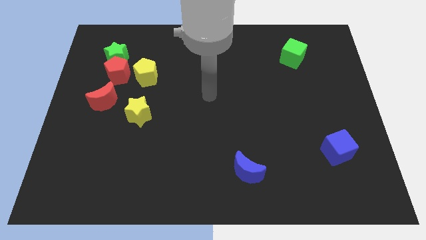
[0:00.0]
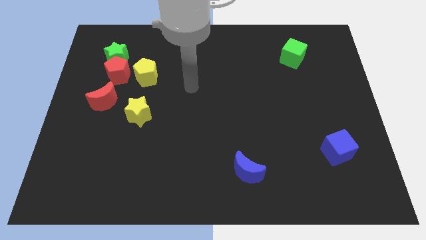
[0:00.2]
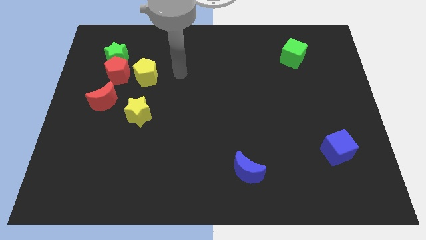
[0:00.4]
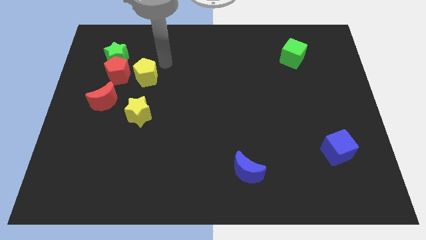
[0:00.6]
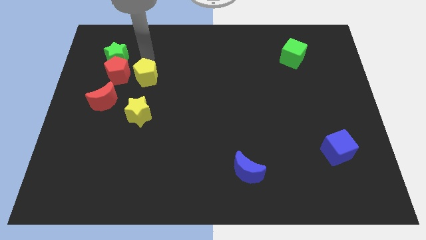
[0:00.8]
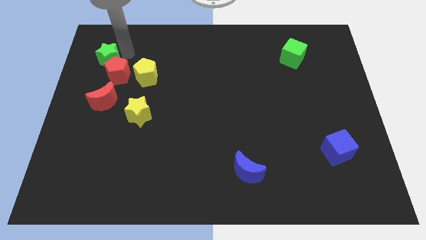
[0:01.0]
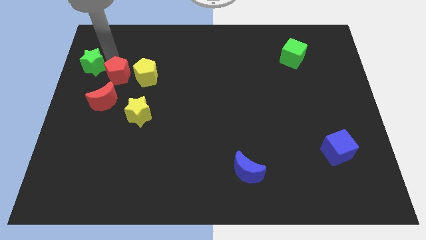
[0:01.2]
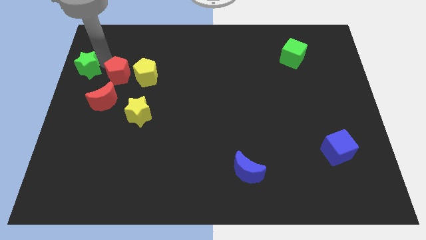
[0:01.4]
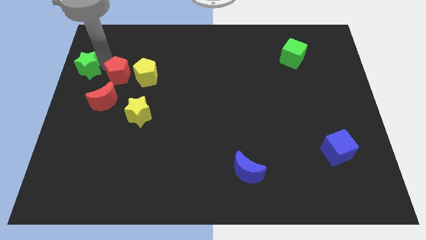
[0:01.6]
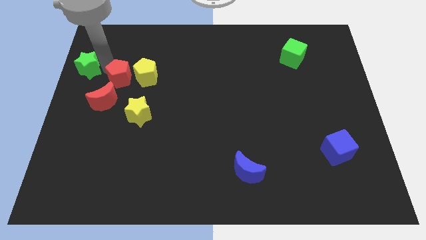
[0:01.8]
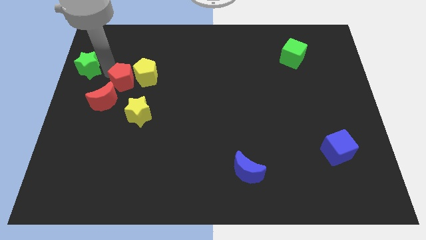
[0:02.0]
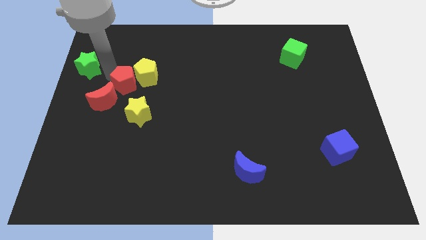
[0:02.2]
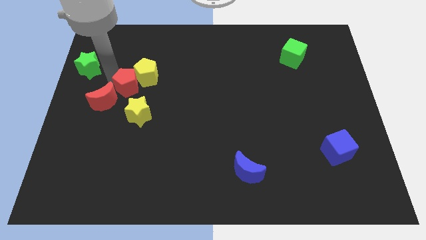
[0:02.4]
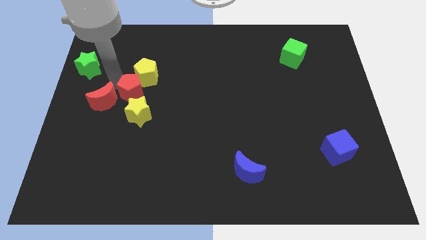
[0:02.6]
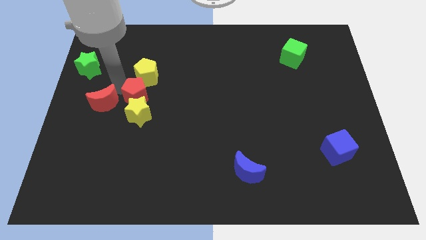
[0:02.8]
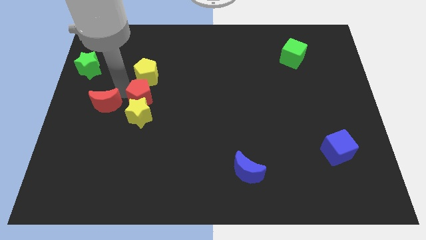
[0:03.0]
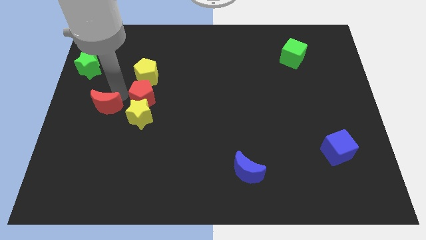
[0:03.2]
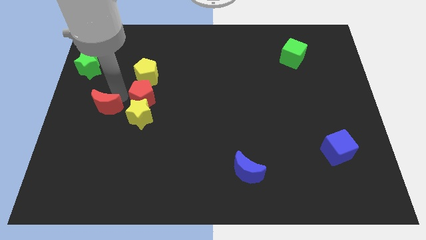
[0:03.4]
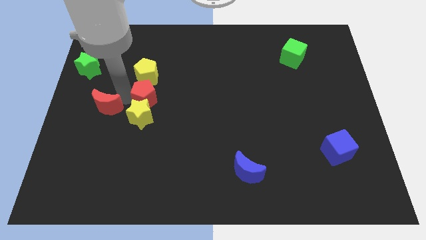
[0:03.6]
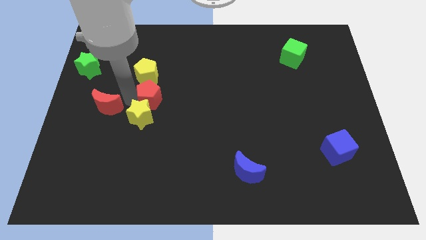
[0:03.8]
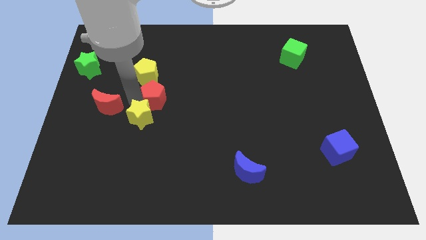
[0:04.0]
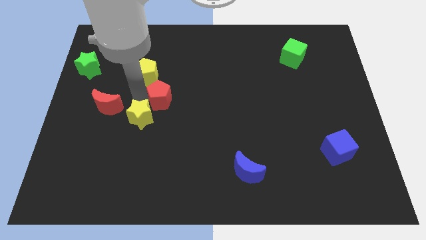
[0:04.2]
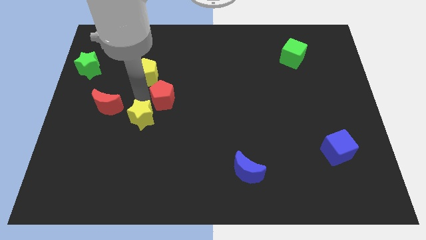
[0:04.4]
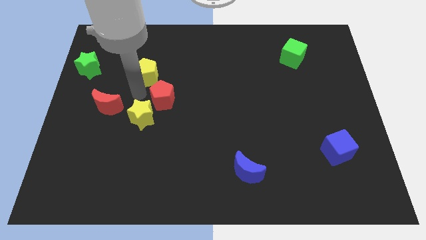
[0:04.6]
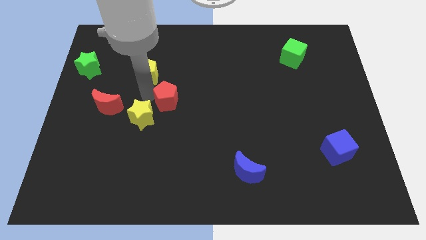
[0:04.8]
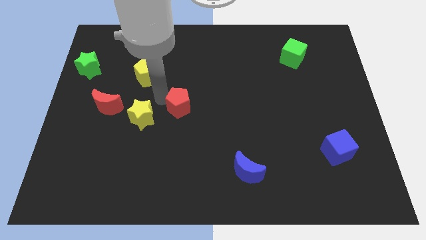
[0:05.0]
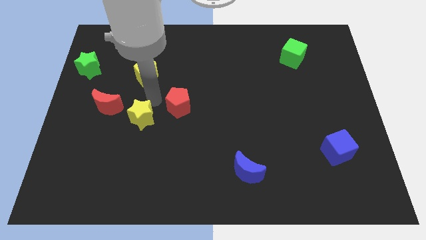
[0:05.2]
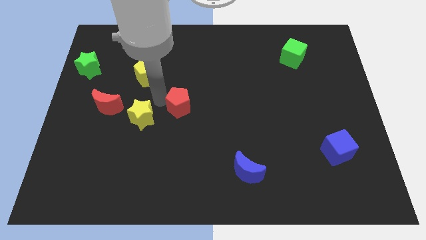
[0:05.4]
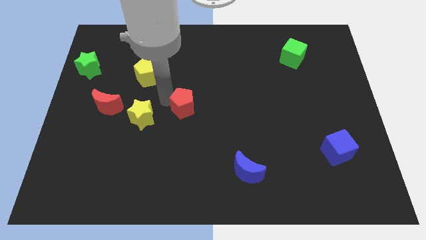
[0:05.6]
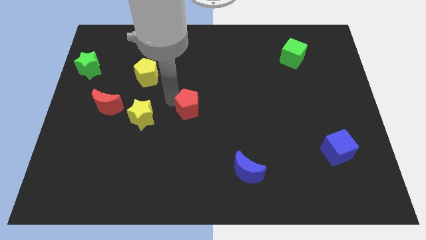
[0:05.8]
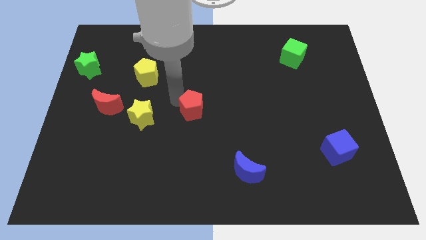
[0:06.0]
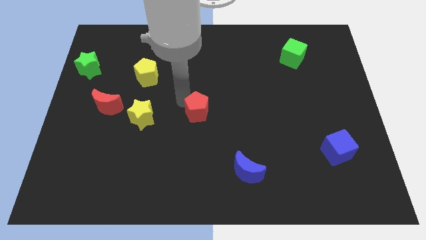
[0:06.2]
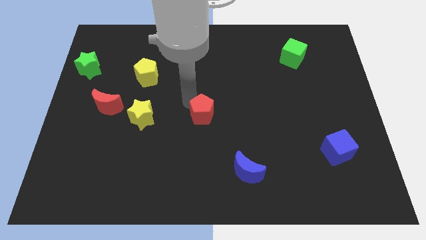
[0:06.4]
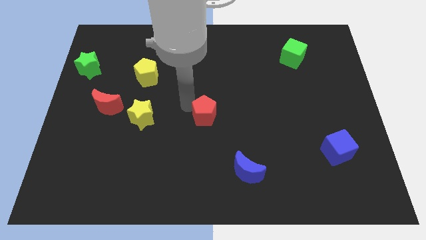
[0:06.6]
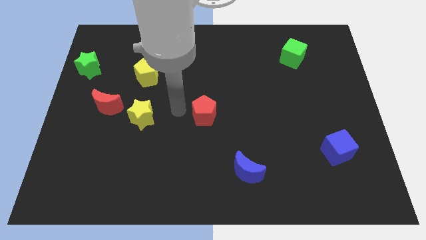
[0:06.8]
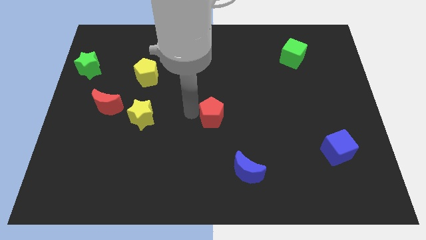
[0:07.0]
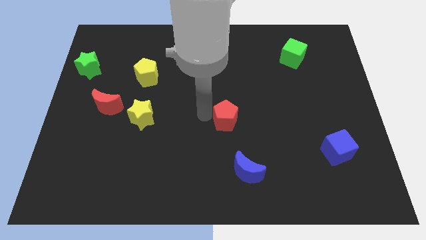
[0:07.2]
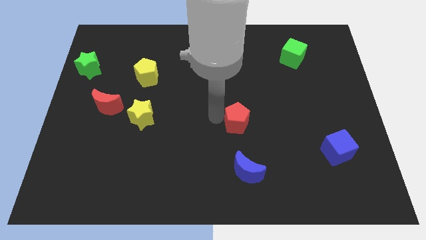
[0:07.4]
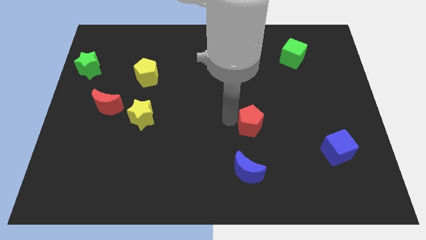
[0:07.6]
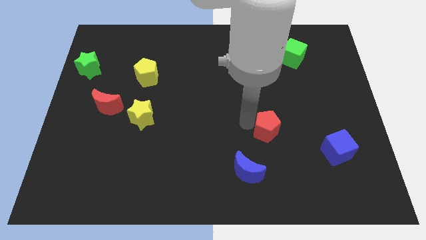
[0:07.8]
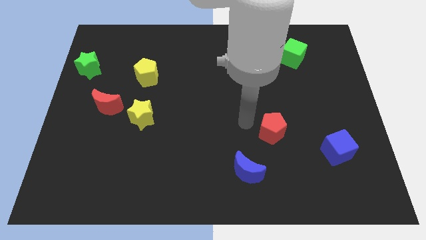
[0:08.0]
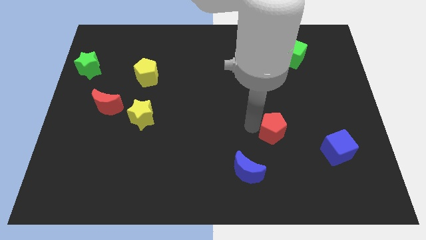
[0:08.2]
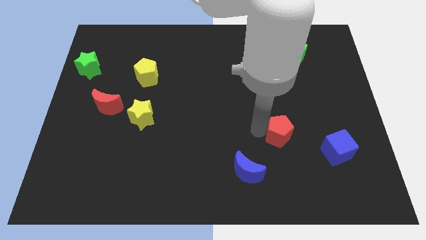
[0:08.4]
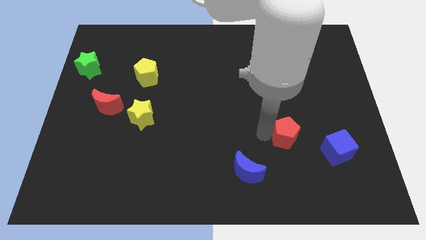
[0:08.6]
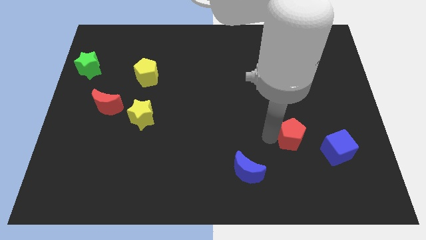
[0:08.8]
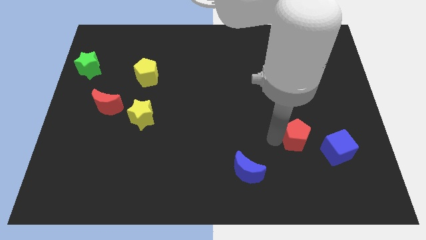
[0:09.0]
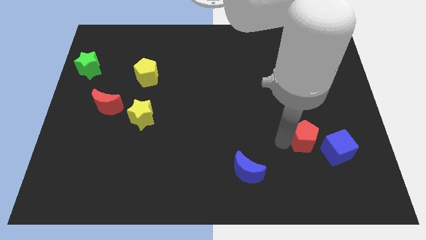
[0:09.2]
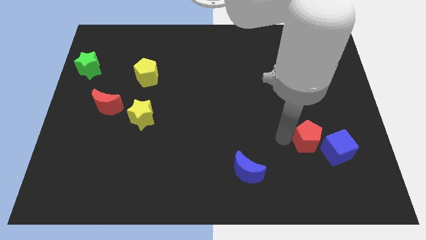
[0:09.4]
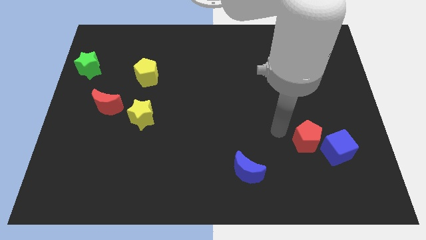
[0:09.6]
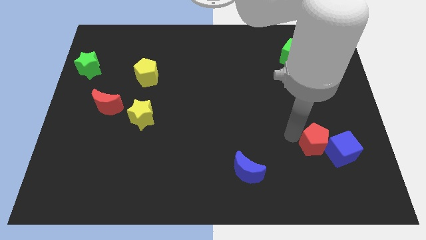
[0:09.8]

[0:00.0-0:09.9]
put the red pentagon close to the blue cube

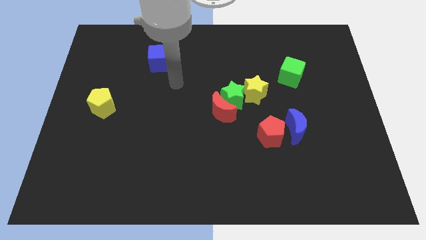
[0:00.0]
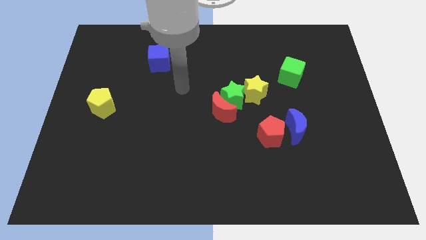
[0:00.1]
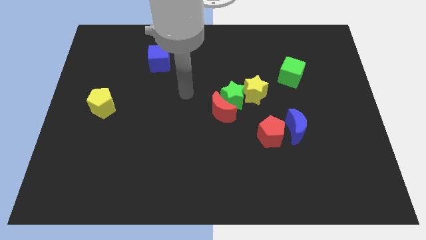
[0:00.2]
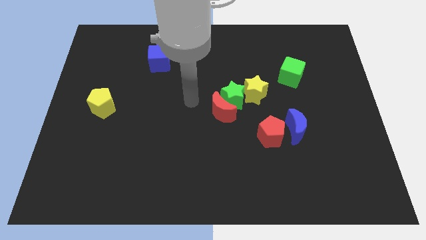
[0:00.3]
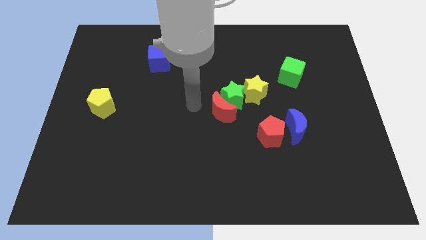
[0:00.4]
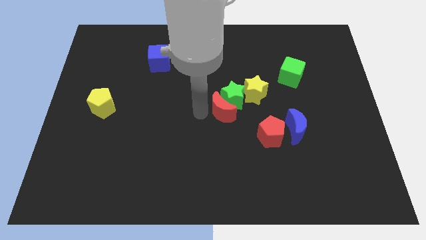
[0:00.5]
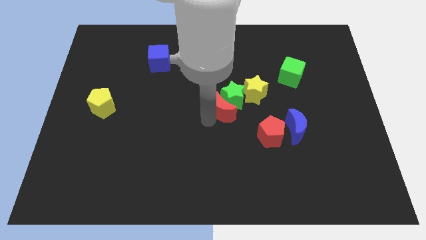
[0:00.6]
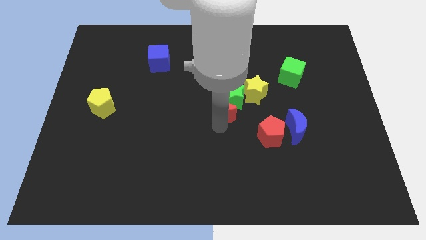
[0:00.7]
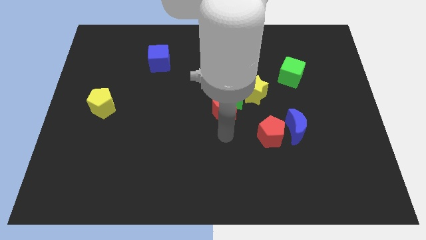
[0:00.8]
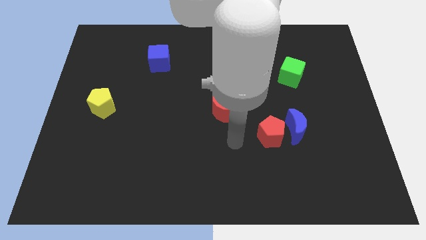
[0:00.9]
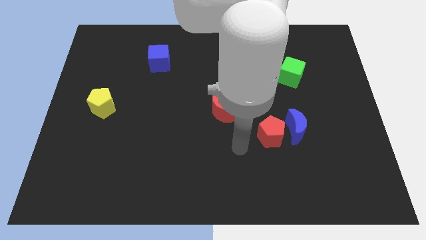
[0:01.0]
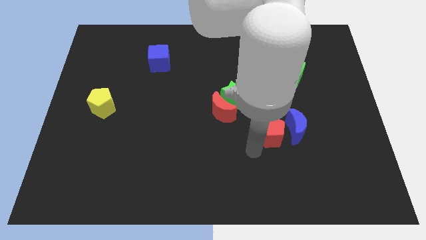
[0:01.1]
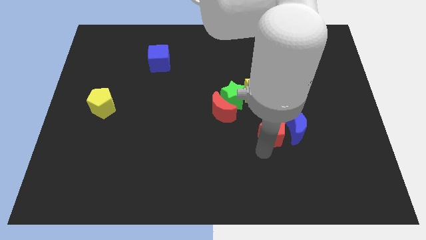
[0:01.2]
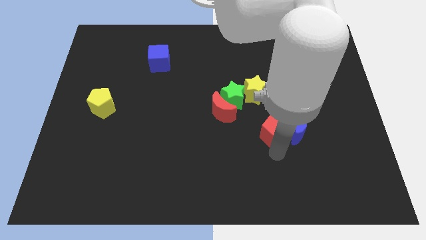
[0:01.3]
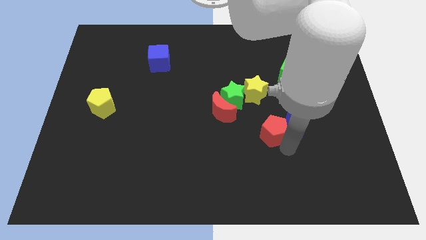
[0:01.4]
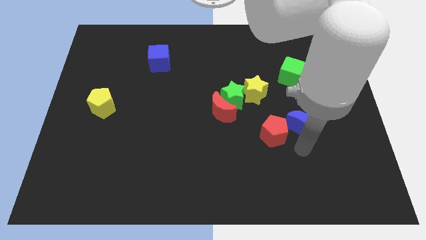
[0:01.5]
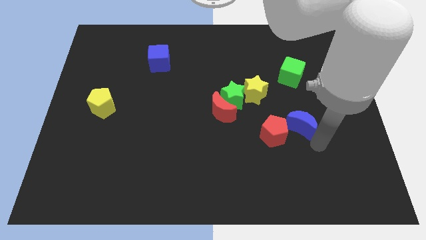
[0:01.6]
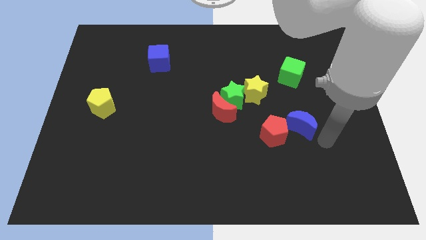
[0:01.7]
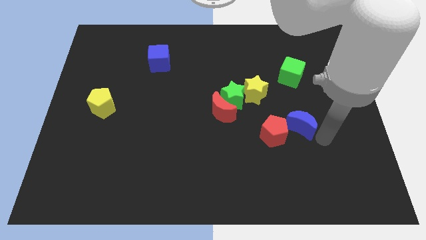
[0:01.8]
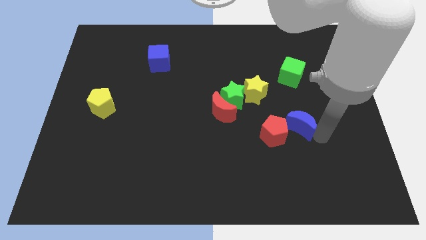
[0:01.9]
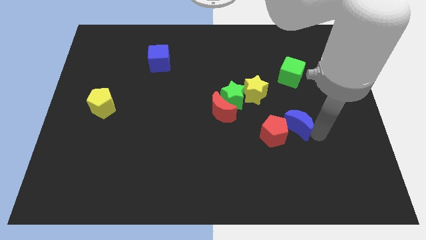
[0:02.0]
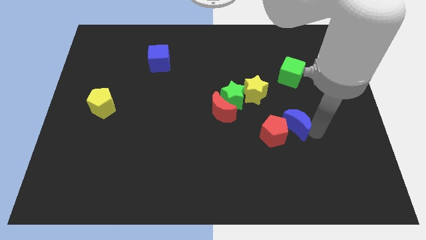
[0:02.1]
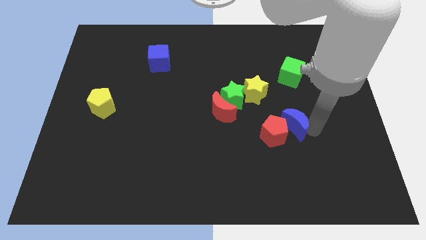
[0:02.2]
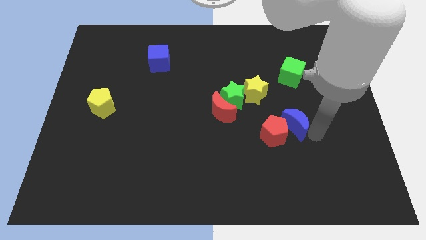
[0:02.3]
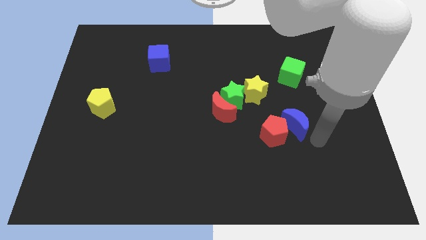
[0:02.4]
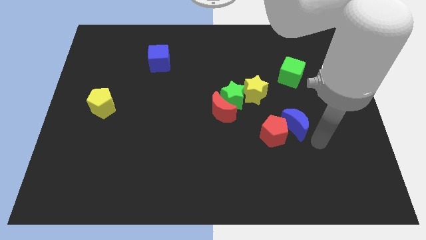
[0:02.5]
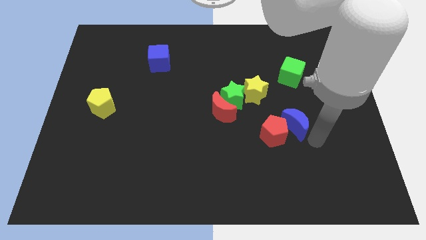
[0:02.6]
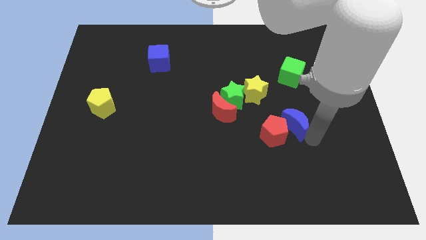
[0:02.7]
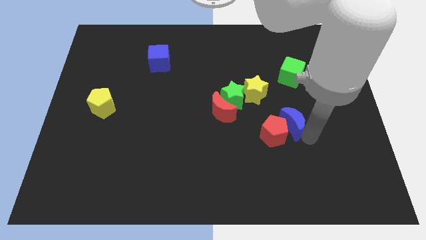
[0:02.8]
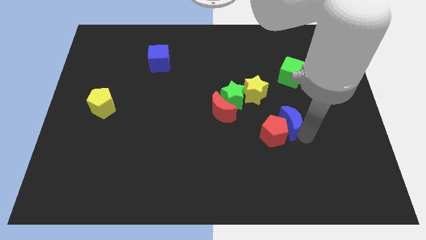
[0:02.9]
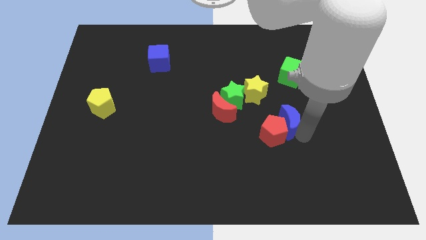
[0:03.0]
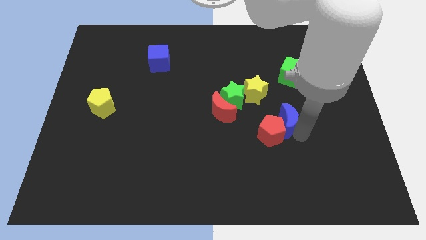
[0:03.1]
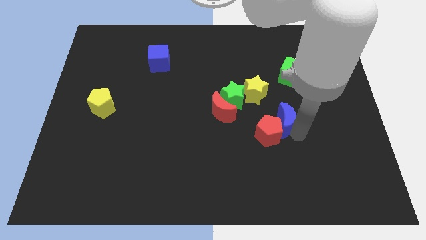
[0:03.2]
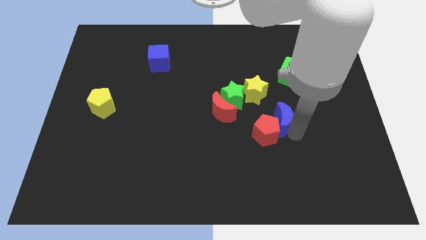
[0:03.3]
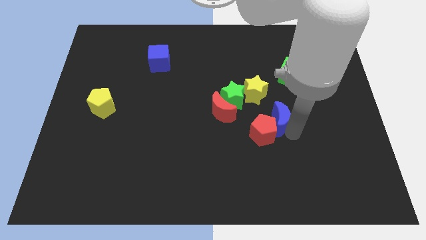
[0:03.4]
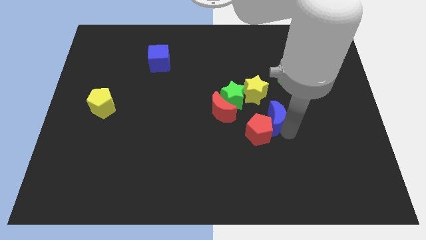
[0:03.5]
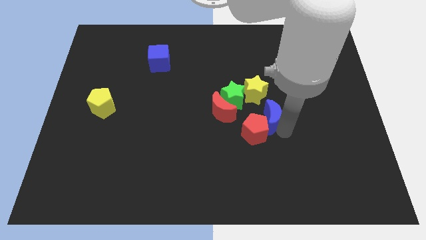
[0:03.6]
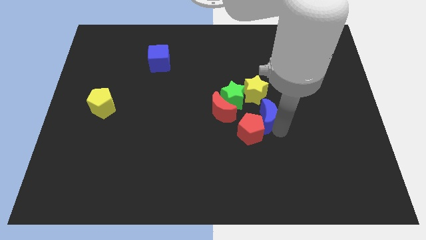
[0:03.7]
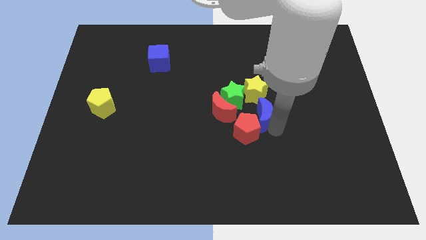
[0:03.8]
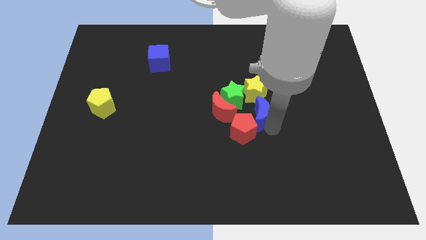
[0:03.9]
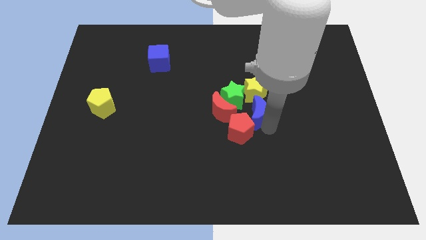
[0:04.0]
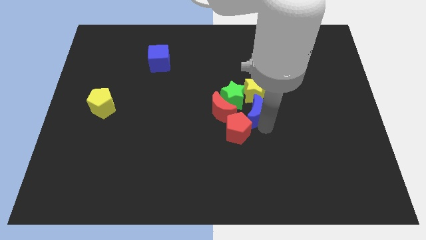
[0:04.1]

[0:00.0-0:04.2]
put the blue moon towards the yellow star
